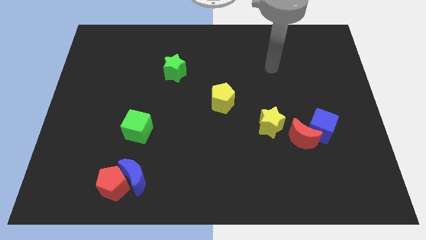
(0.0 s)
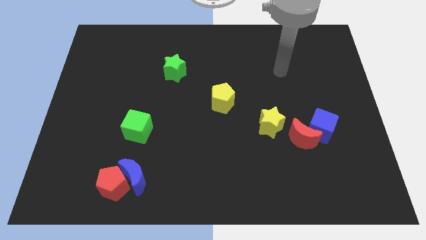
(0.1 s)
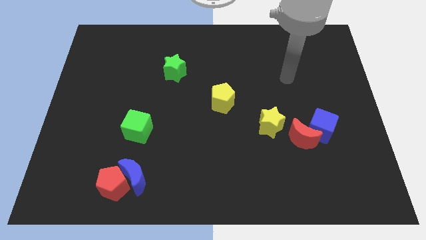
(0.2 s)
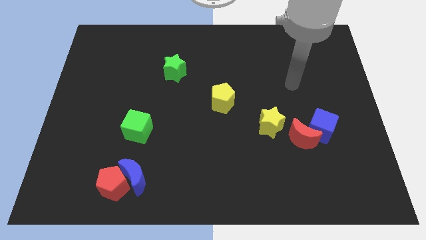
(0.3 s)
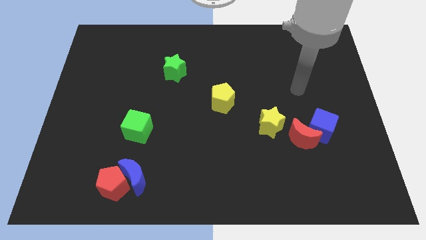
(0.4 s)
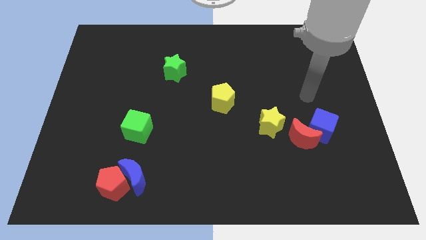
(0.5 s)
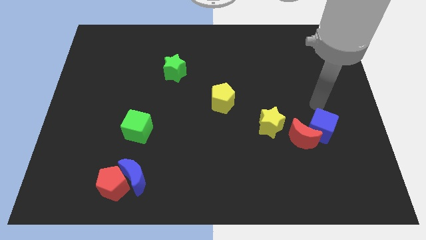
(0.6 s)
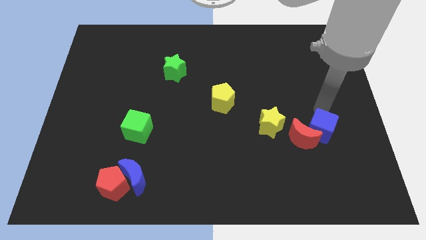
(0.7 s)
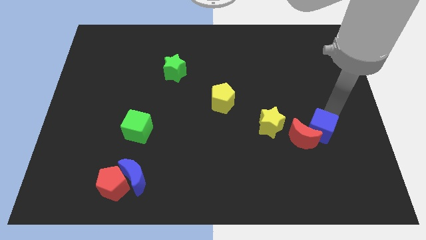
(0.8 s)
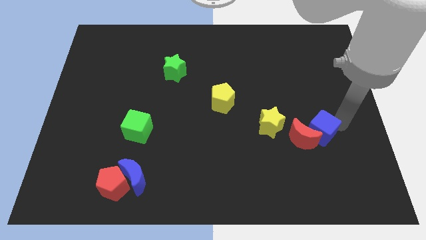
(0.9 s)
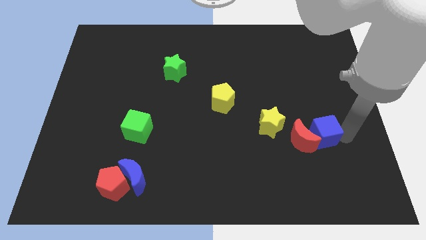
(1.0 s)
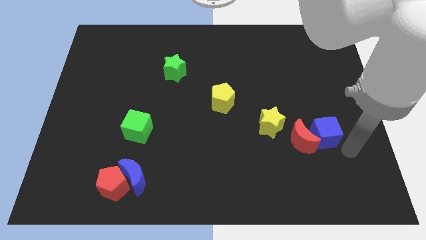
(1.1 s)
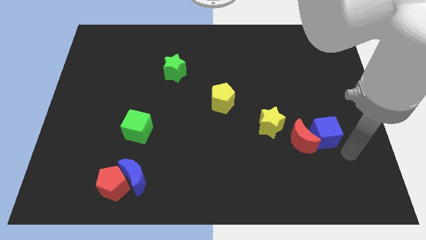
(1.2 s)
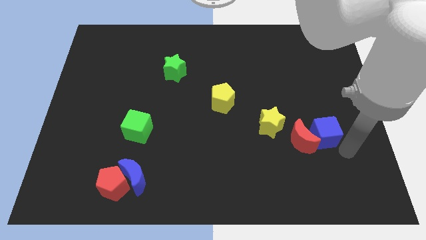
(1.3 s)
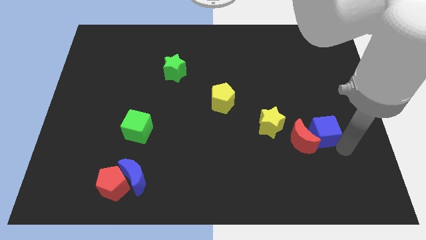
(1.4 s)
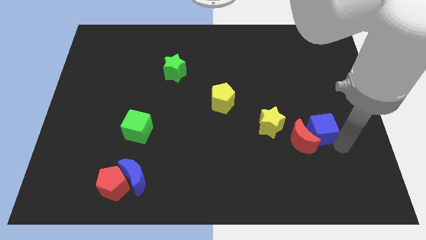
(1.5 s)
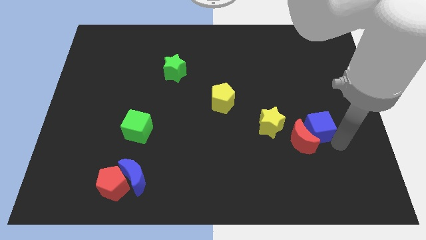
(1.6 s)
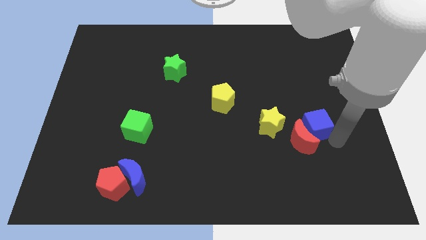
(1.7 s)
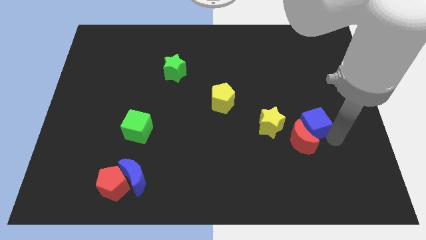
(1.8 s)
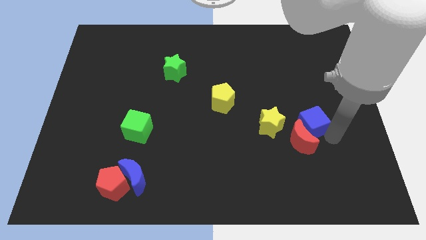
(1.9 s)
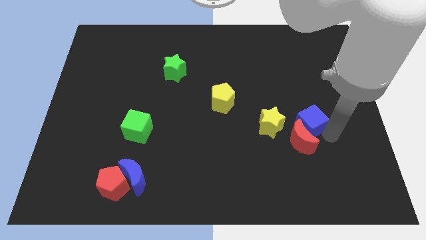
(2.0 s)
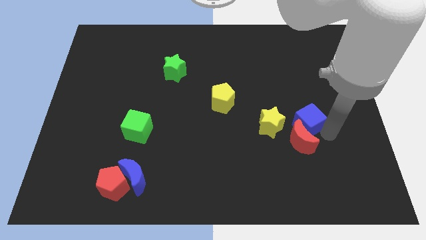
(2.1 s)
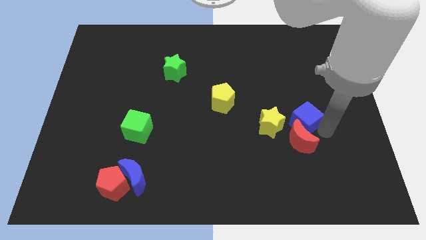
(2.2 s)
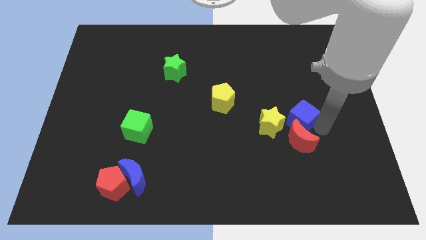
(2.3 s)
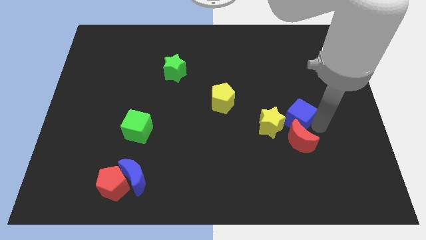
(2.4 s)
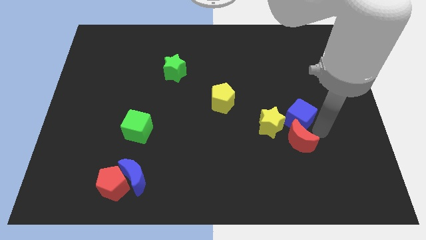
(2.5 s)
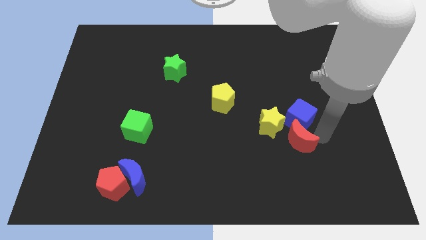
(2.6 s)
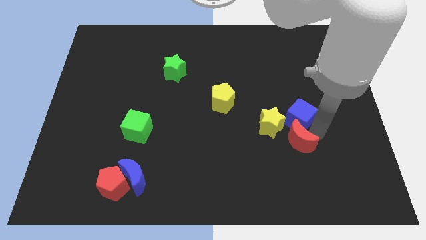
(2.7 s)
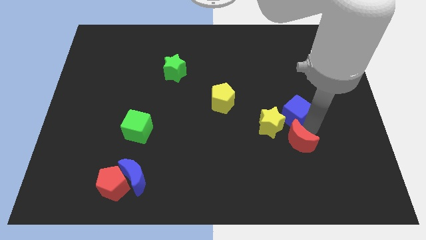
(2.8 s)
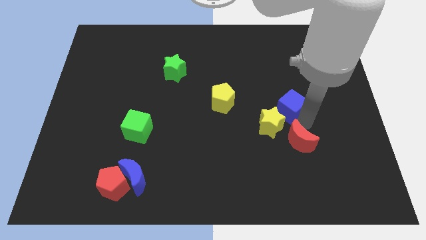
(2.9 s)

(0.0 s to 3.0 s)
slide the blue cube somewhat upwards and left diagonally

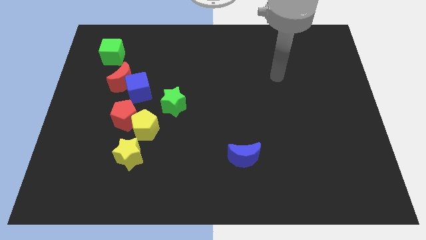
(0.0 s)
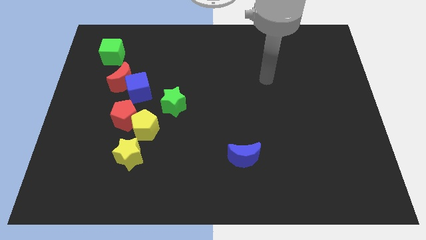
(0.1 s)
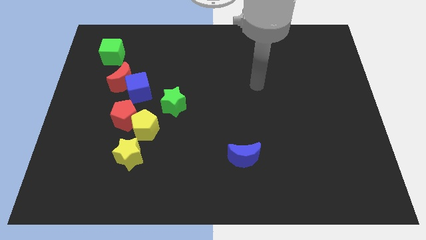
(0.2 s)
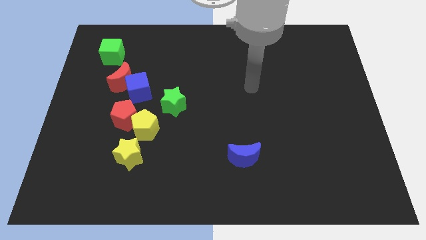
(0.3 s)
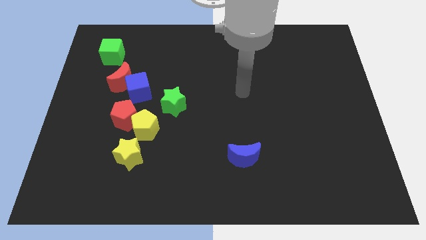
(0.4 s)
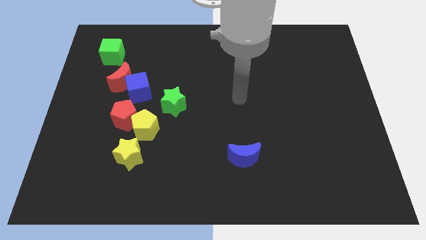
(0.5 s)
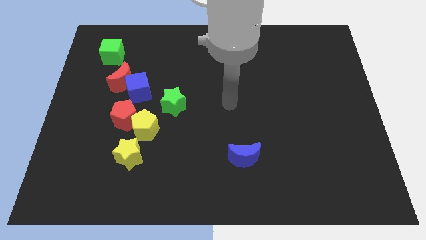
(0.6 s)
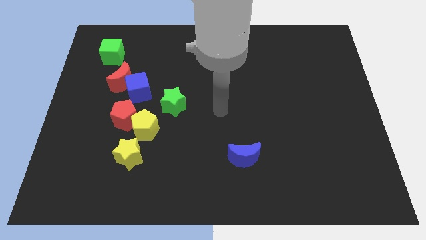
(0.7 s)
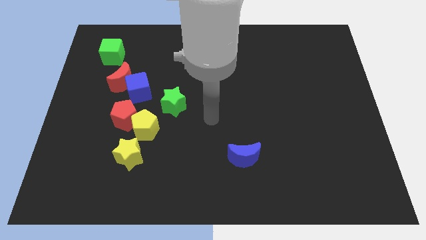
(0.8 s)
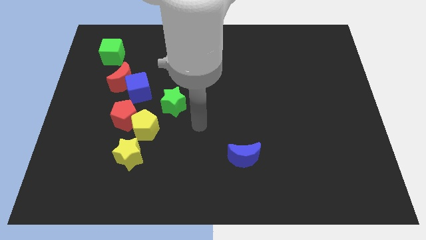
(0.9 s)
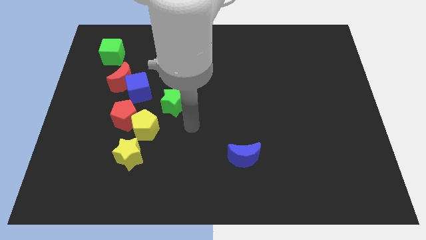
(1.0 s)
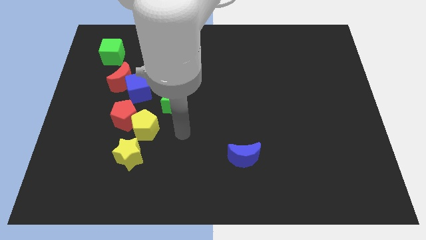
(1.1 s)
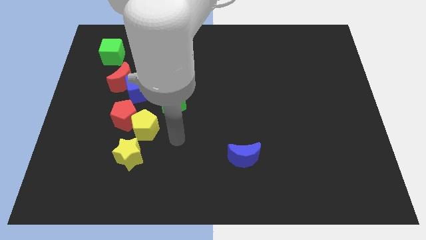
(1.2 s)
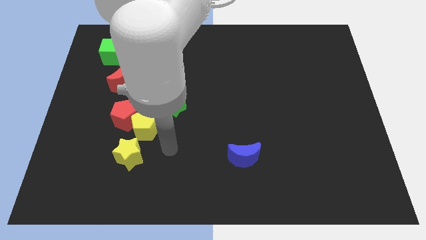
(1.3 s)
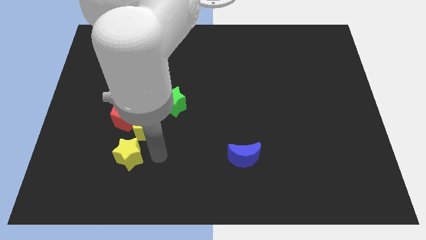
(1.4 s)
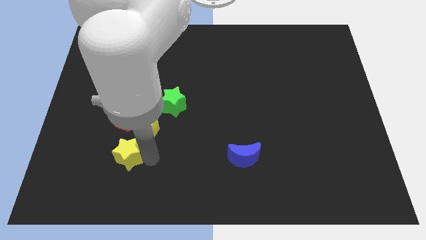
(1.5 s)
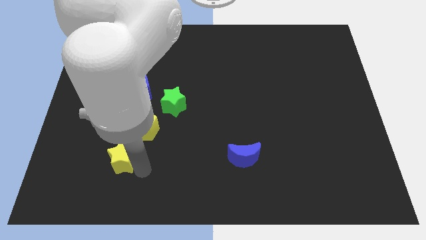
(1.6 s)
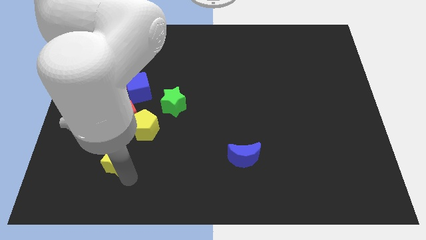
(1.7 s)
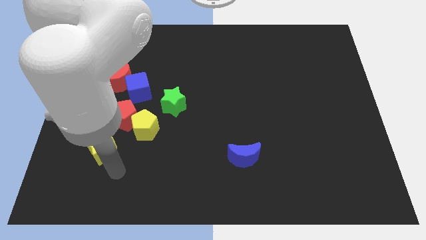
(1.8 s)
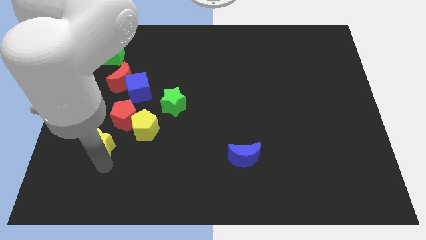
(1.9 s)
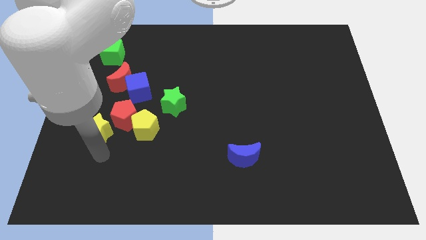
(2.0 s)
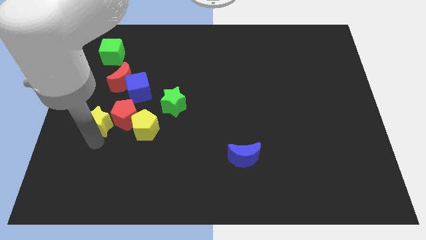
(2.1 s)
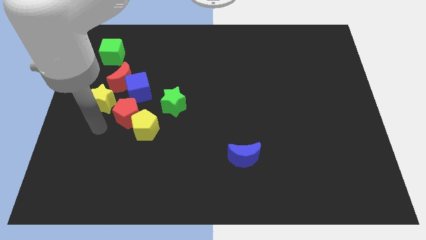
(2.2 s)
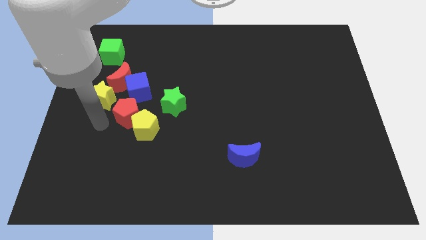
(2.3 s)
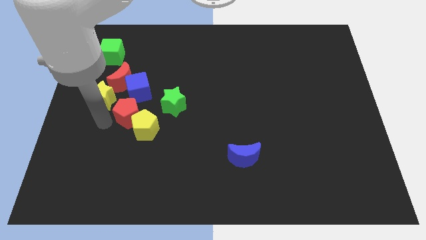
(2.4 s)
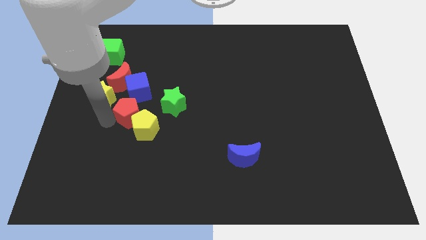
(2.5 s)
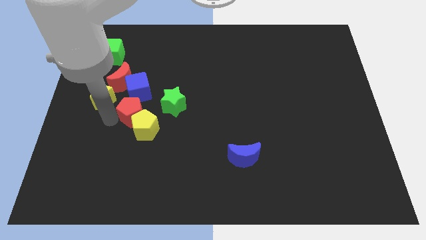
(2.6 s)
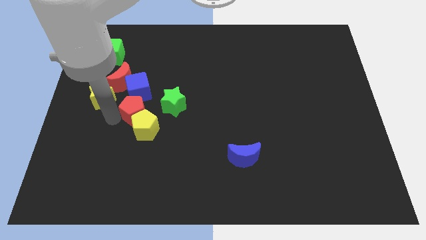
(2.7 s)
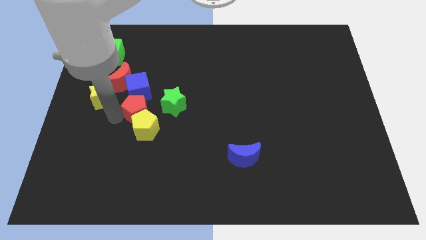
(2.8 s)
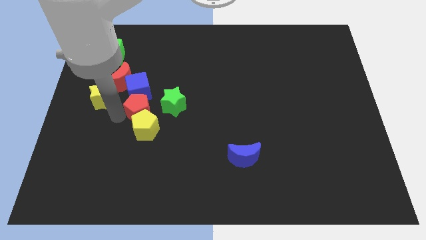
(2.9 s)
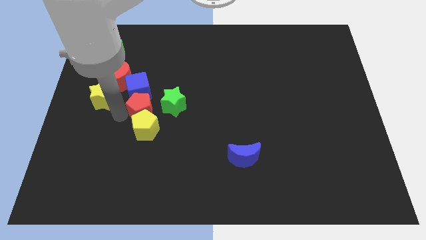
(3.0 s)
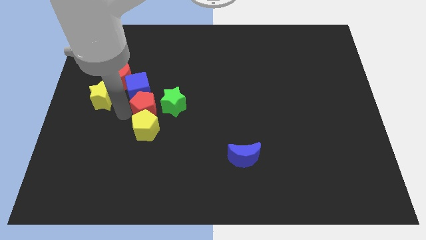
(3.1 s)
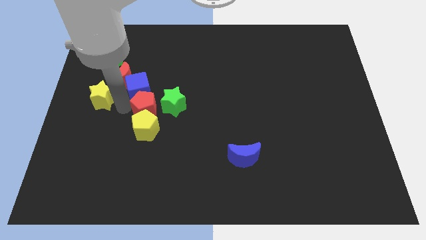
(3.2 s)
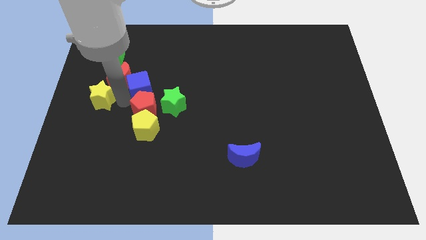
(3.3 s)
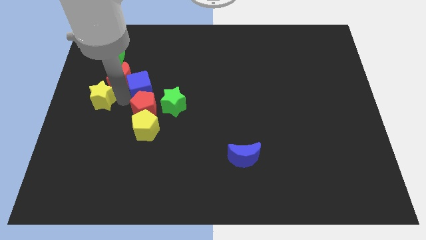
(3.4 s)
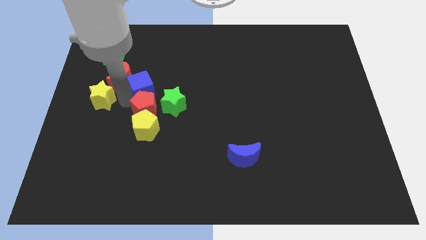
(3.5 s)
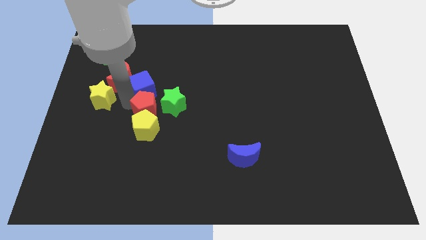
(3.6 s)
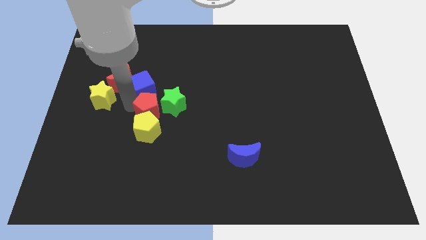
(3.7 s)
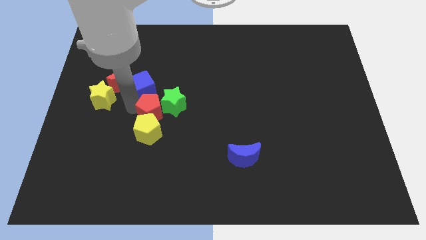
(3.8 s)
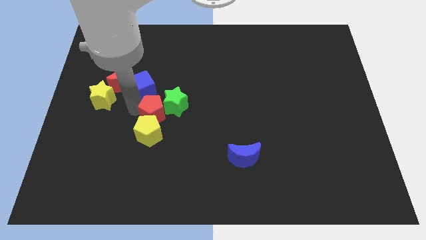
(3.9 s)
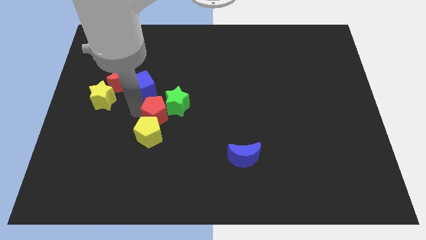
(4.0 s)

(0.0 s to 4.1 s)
move the red pentagon to the right a little

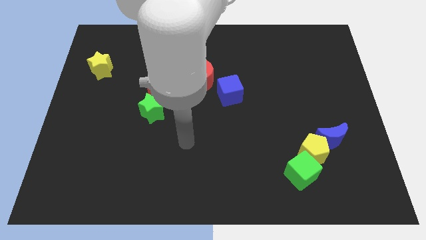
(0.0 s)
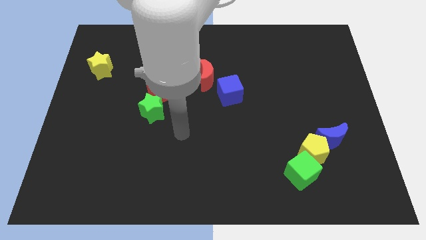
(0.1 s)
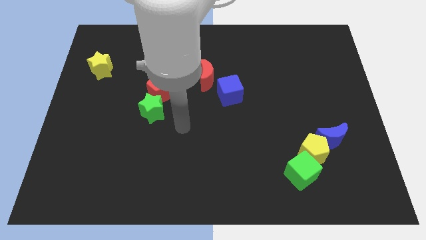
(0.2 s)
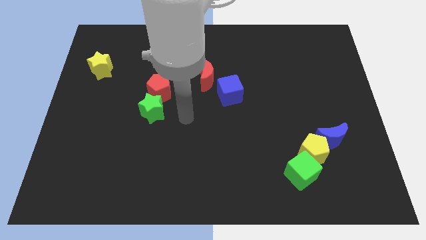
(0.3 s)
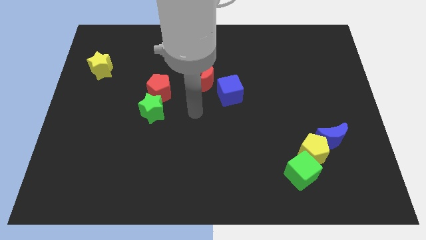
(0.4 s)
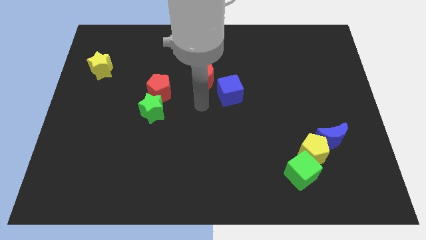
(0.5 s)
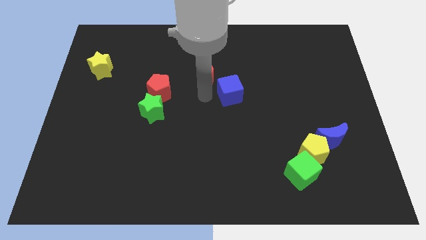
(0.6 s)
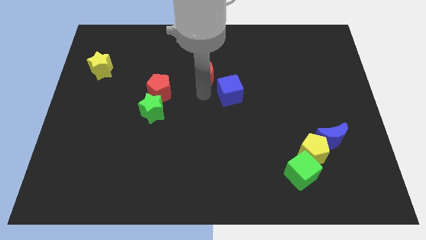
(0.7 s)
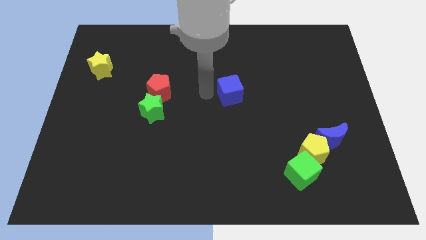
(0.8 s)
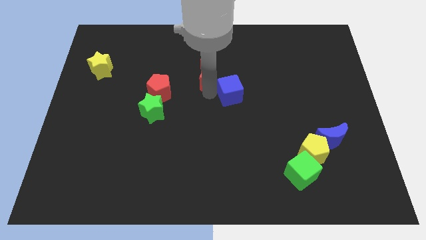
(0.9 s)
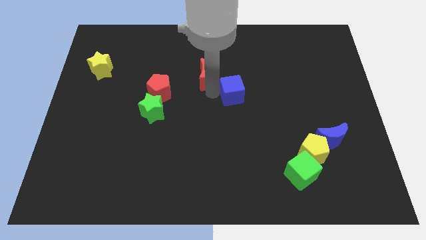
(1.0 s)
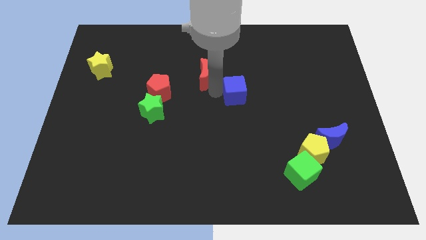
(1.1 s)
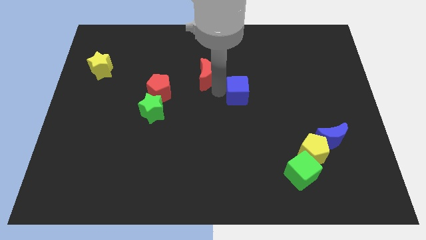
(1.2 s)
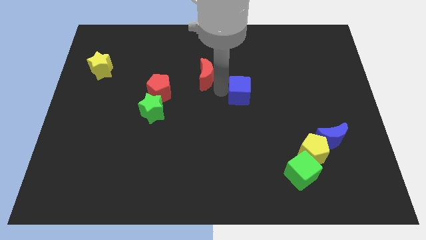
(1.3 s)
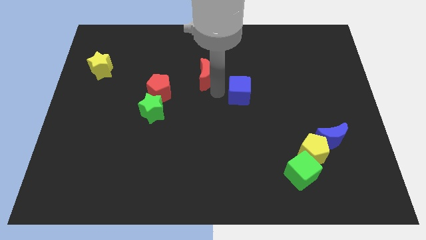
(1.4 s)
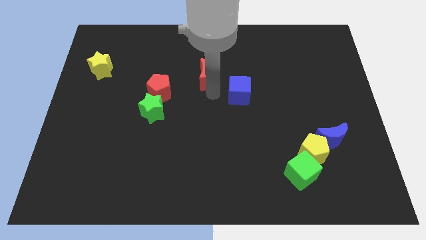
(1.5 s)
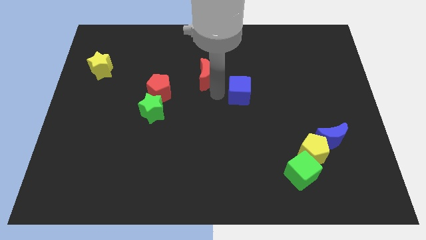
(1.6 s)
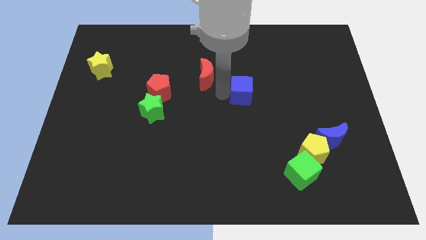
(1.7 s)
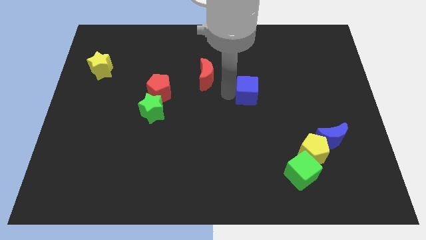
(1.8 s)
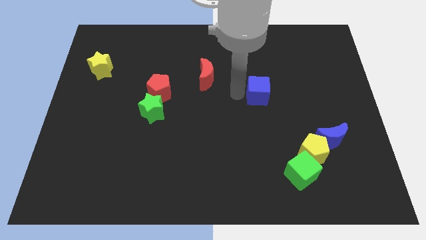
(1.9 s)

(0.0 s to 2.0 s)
move the blue cube somewhat right
